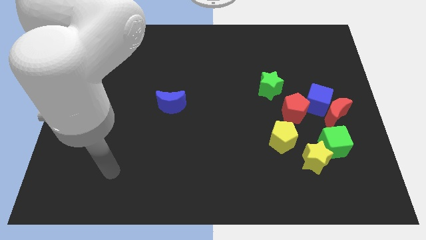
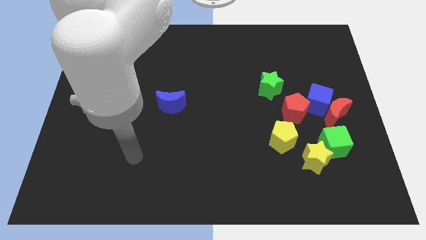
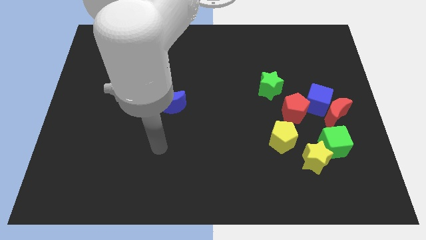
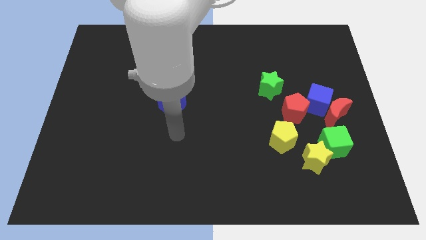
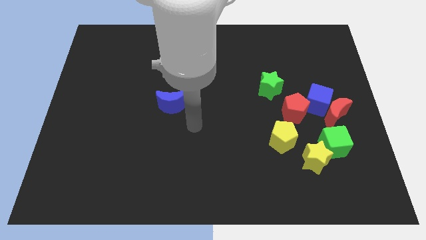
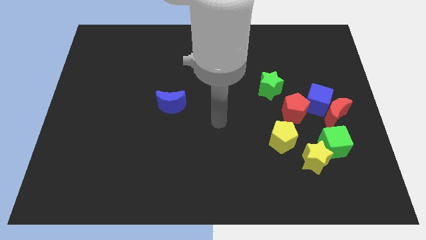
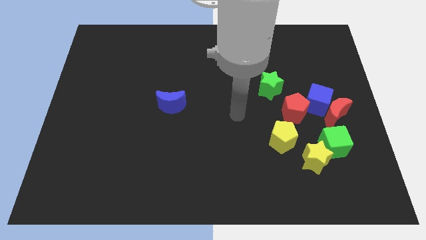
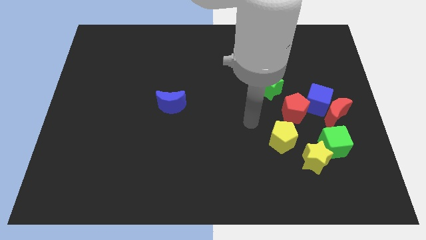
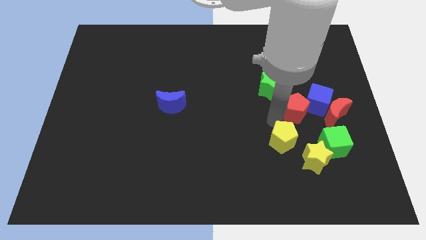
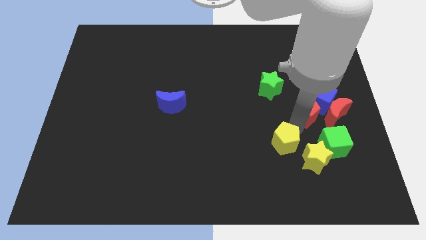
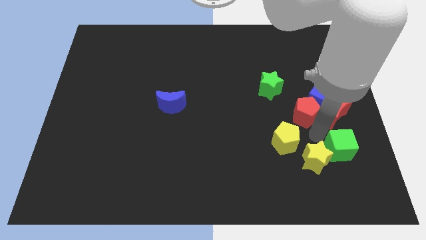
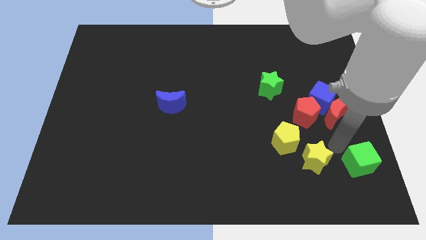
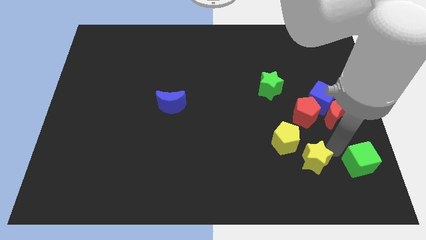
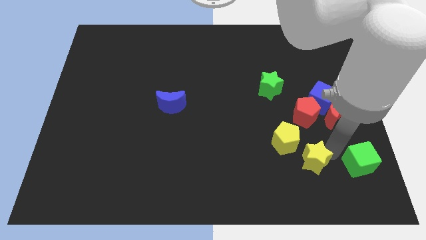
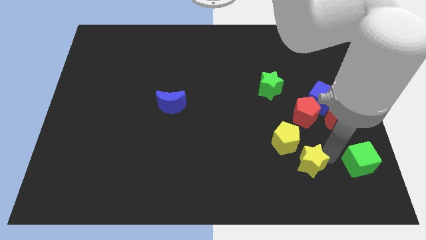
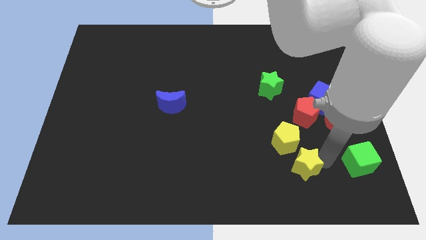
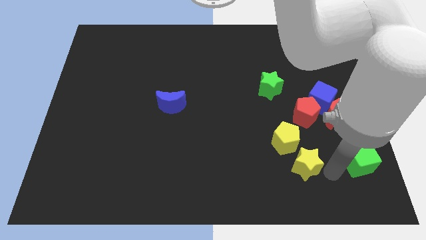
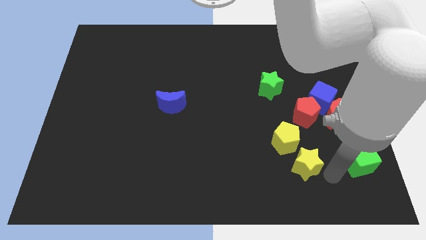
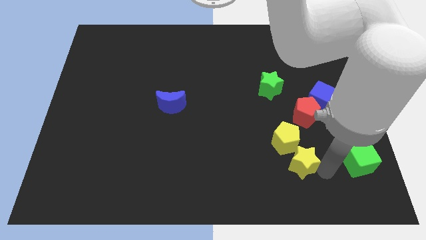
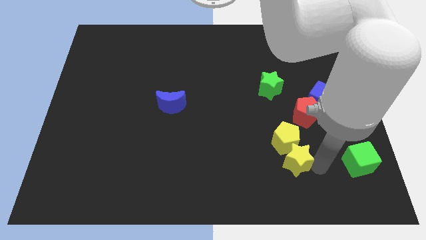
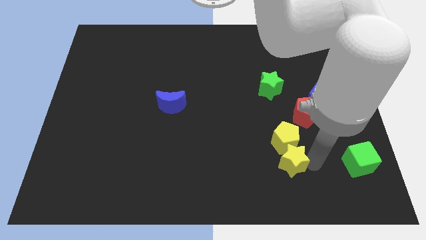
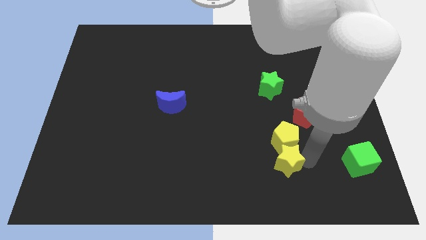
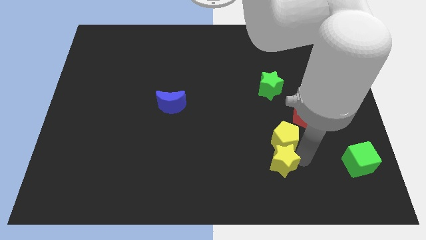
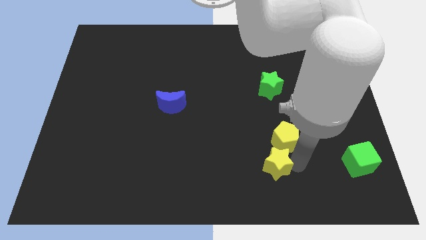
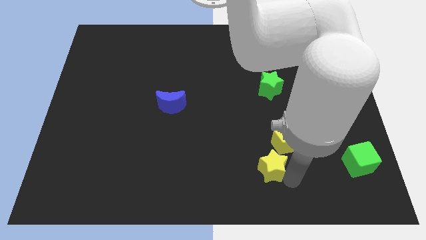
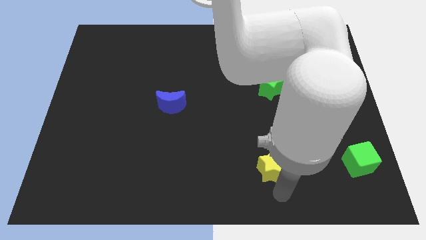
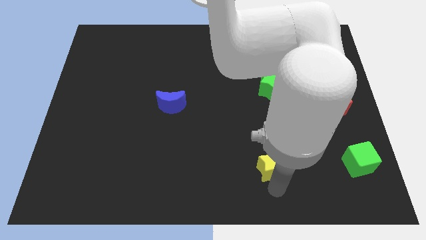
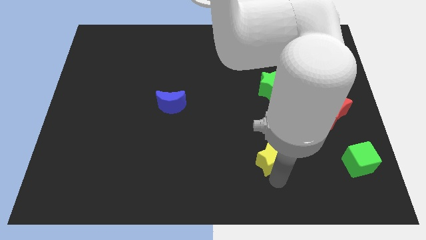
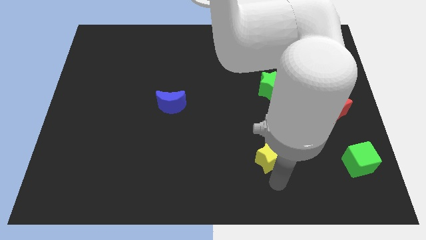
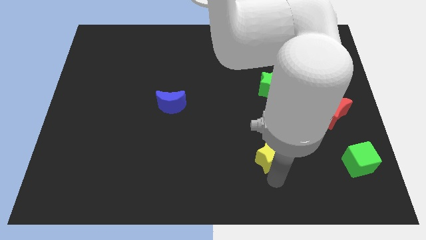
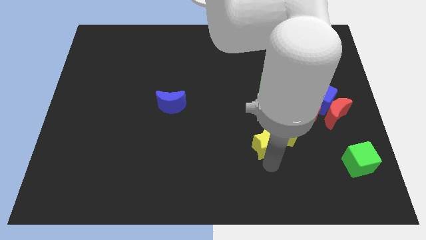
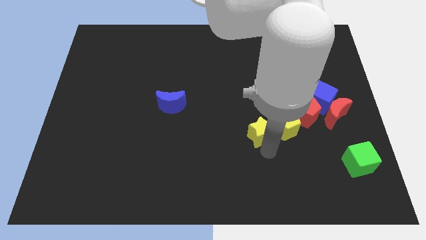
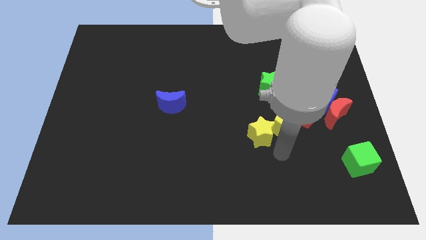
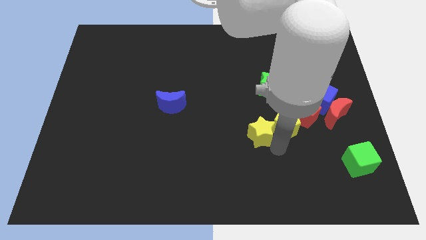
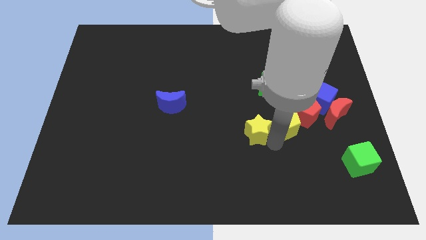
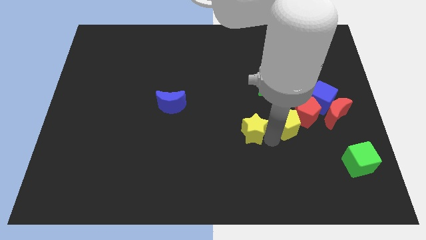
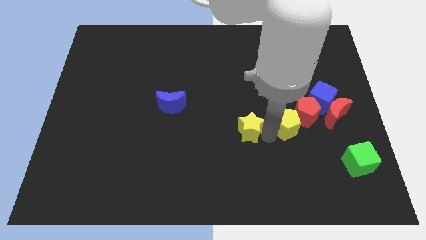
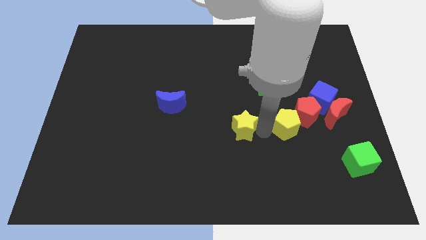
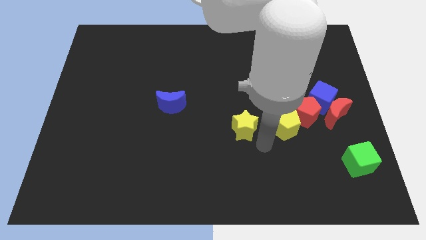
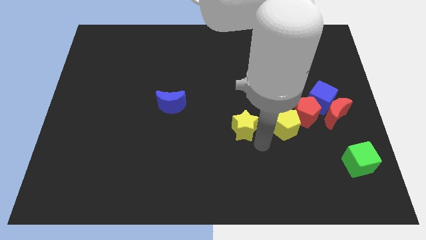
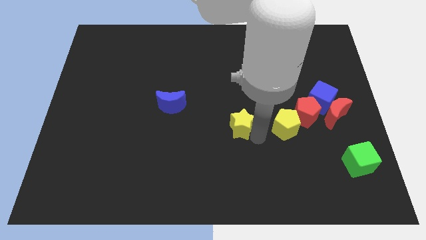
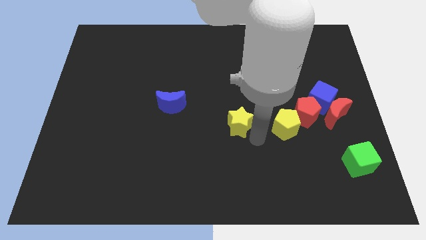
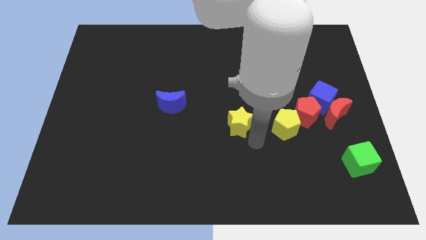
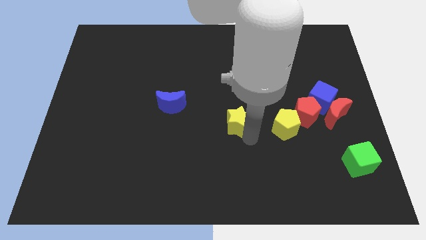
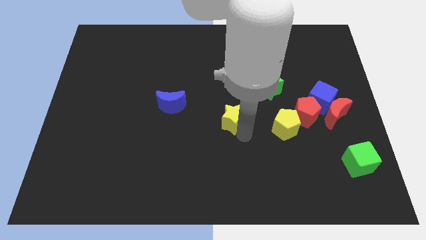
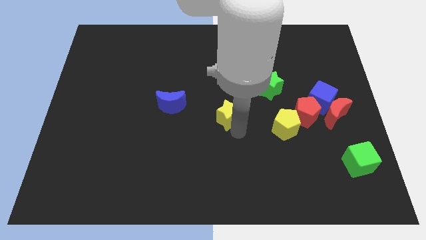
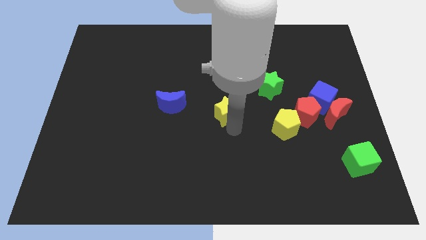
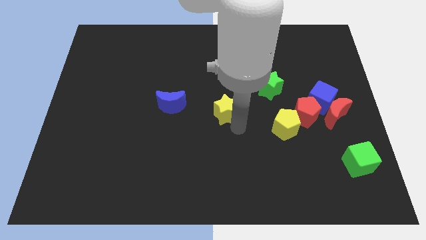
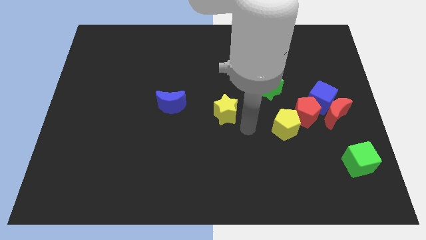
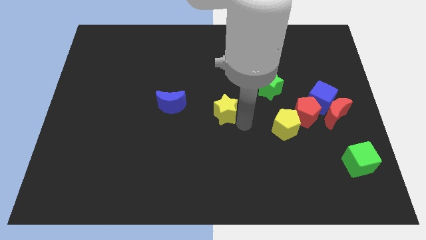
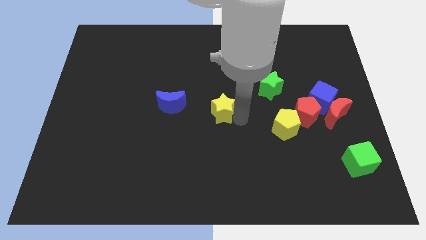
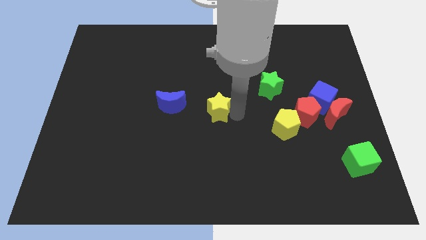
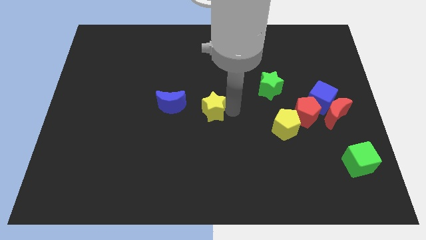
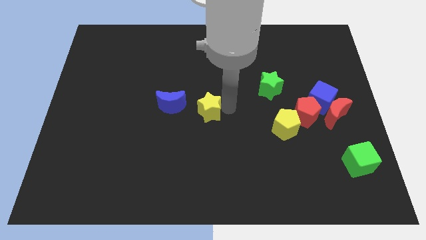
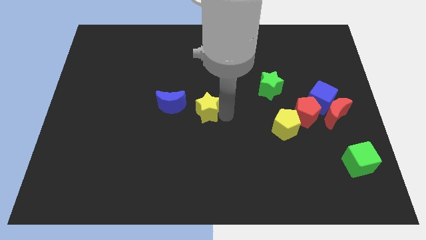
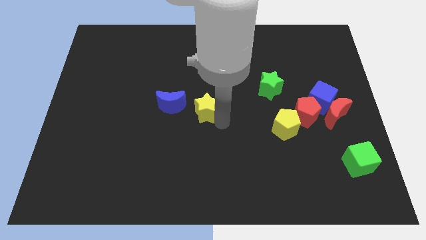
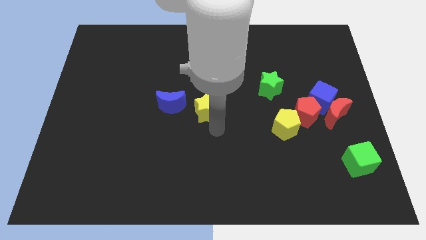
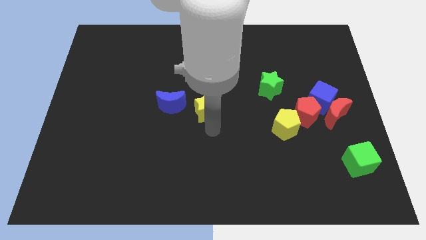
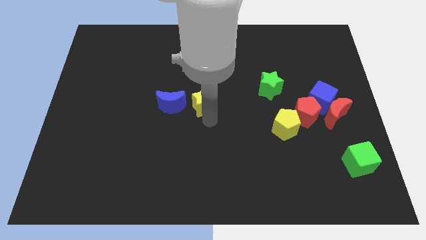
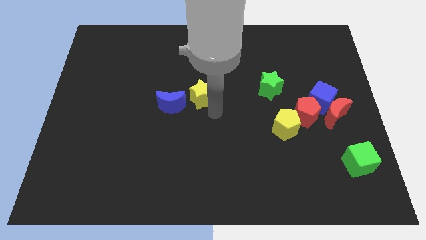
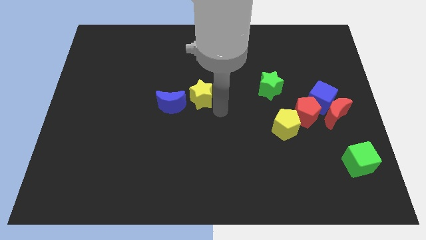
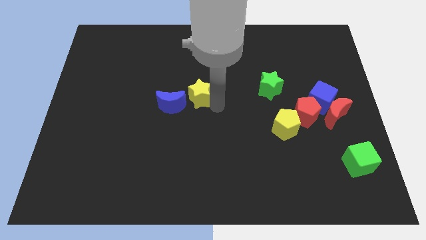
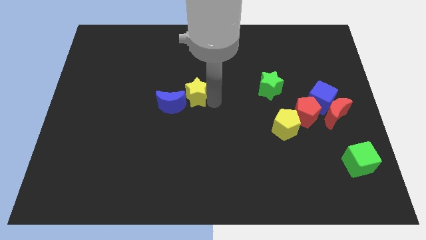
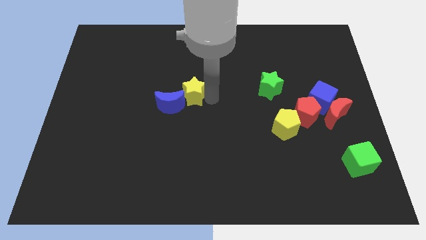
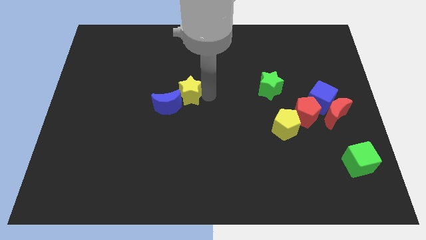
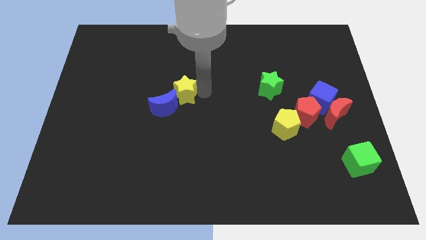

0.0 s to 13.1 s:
slide the yellow star above the blue moon
